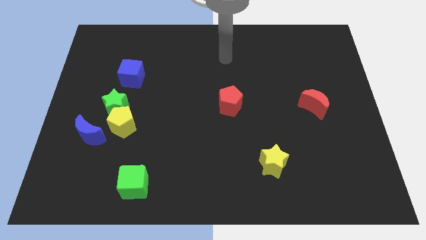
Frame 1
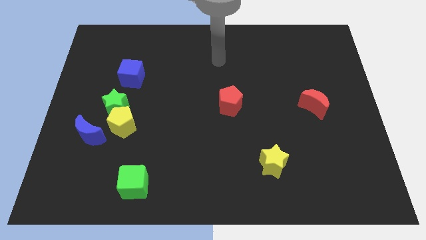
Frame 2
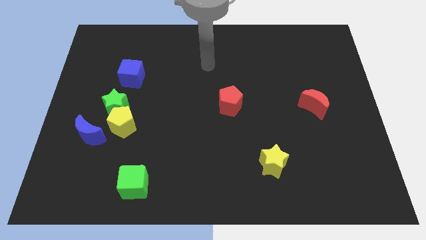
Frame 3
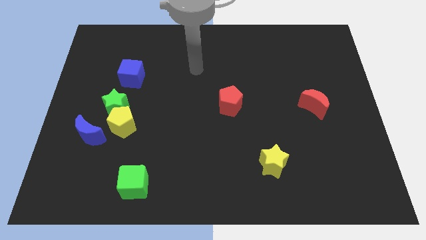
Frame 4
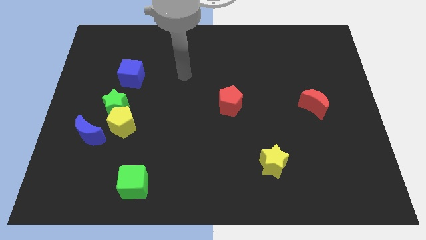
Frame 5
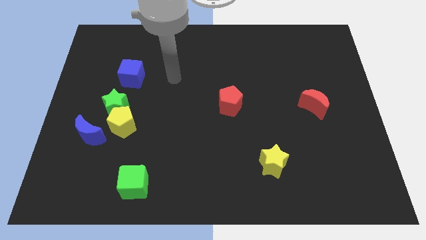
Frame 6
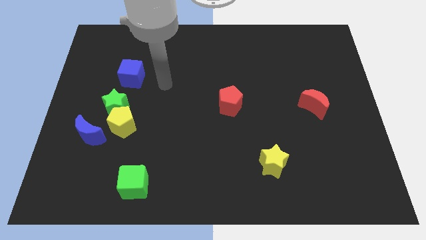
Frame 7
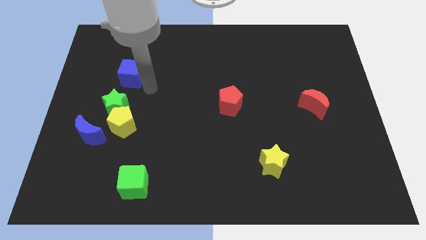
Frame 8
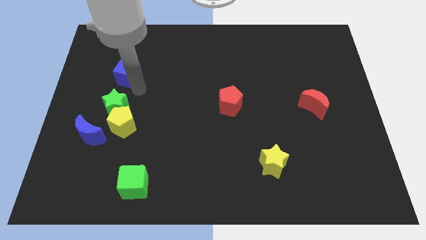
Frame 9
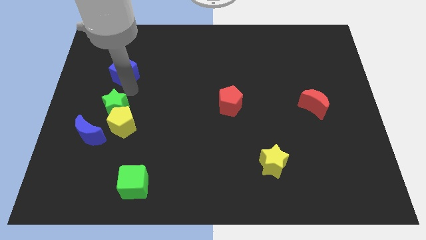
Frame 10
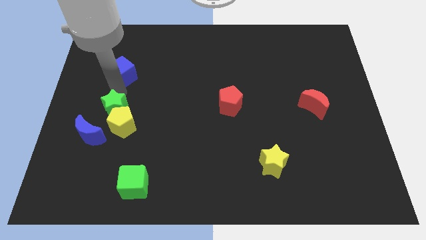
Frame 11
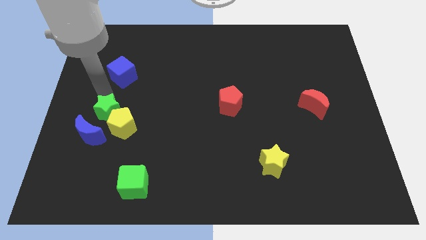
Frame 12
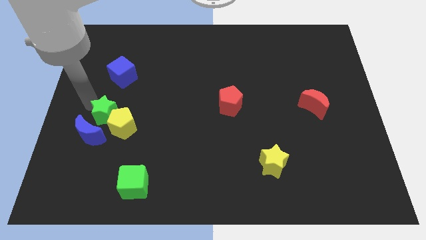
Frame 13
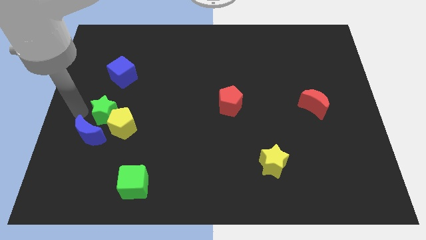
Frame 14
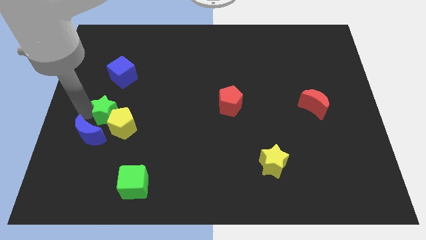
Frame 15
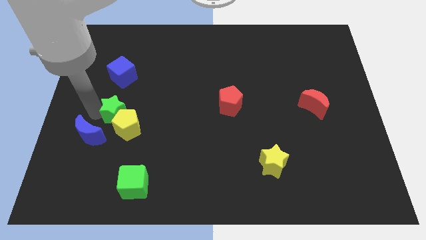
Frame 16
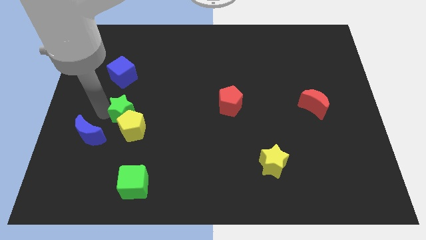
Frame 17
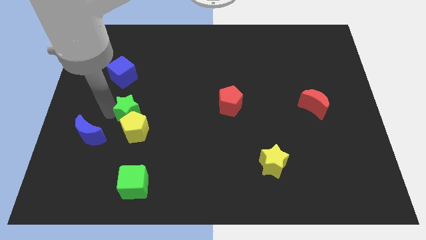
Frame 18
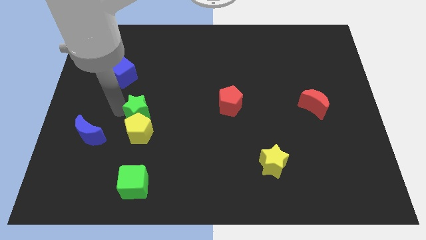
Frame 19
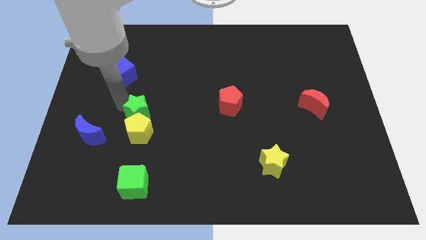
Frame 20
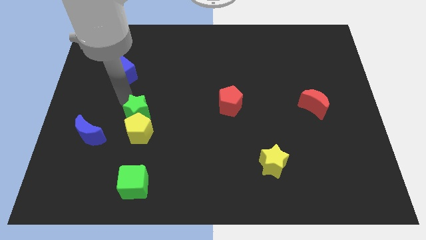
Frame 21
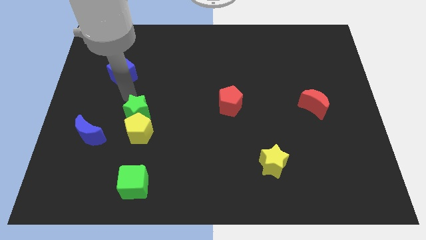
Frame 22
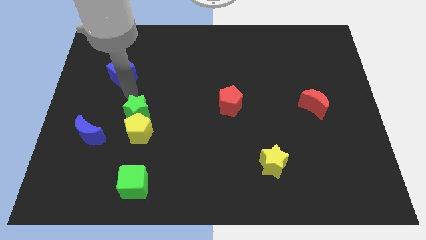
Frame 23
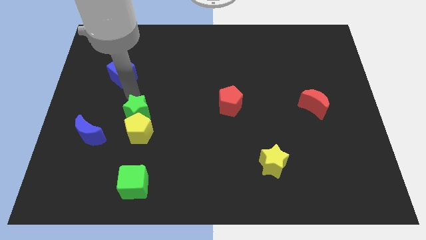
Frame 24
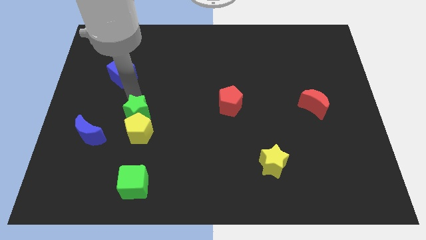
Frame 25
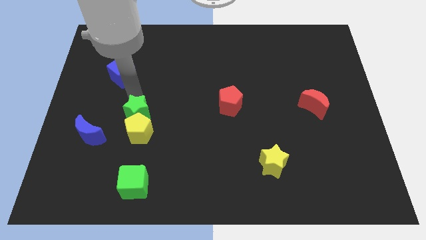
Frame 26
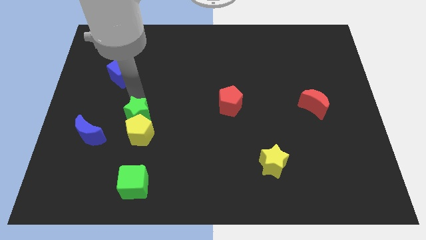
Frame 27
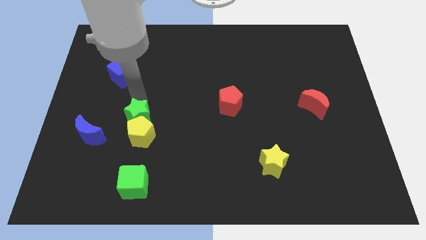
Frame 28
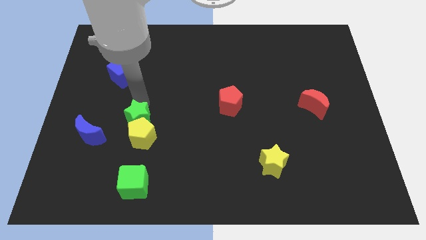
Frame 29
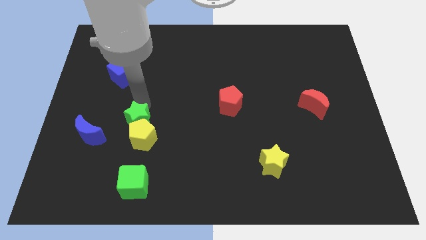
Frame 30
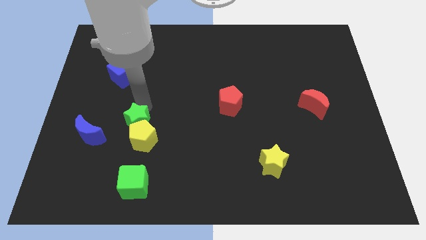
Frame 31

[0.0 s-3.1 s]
move the green star downwards and to the right a bit

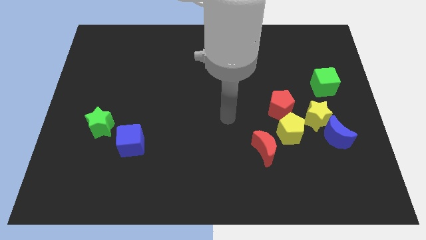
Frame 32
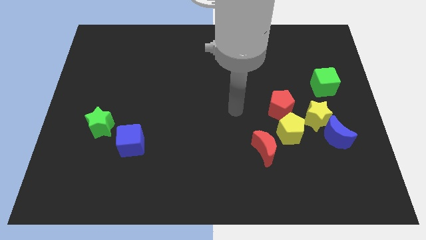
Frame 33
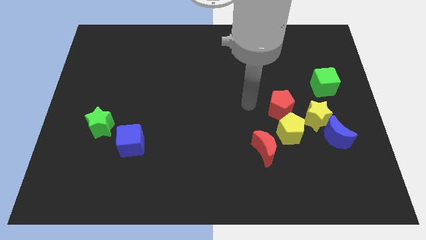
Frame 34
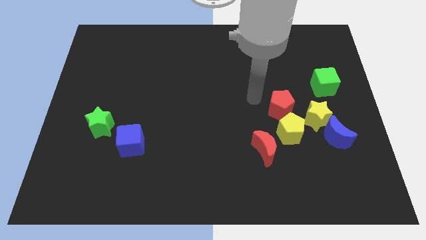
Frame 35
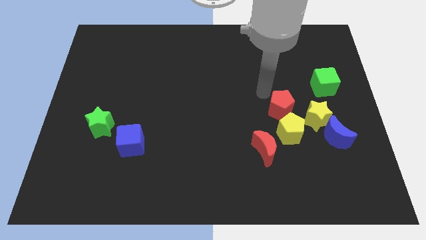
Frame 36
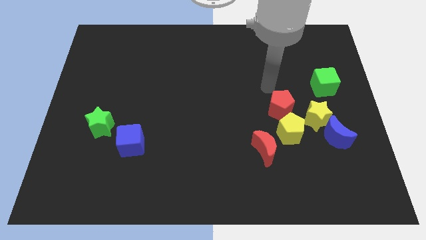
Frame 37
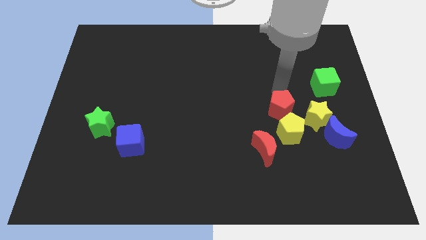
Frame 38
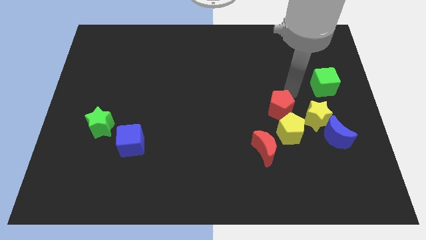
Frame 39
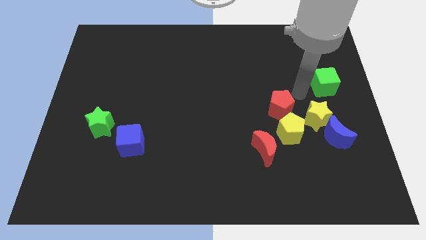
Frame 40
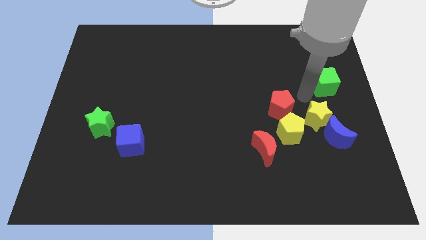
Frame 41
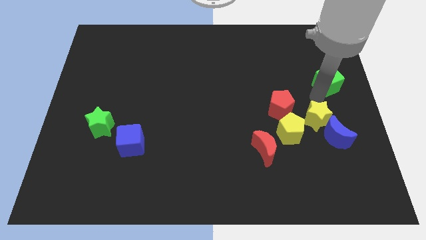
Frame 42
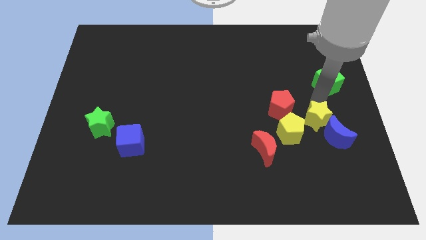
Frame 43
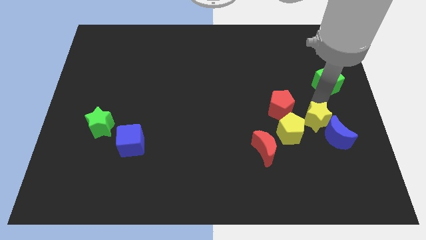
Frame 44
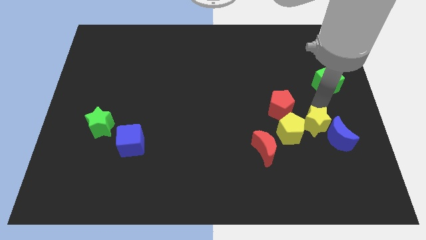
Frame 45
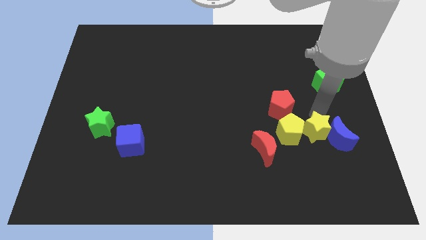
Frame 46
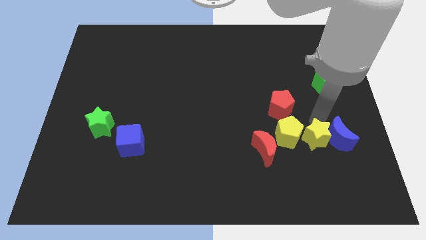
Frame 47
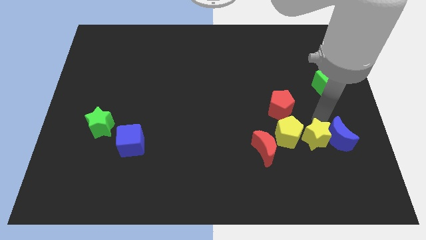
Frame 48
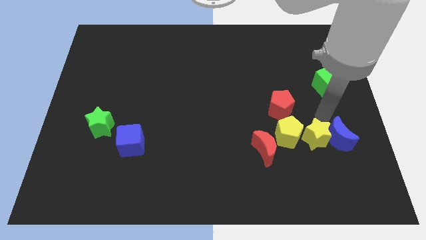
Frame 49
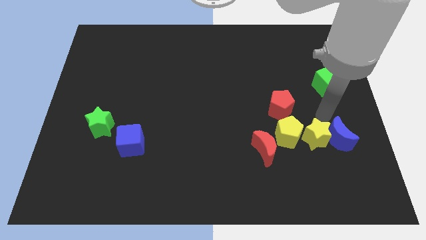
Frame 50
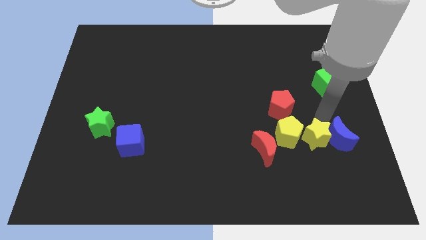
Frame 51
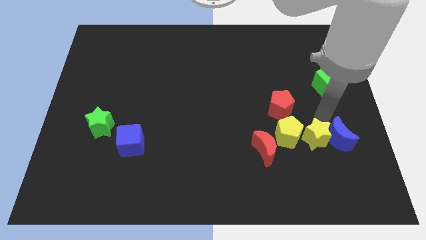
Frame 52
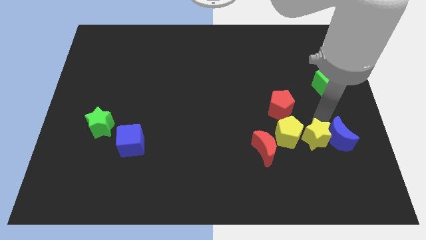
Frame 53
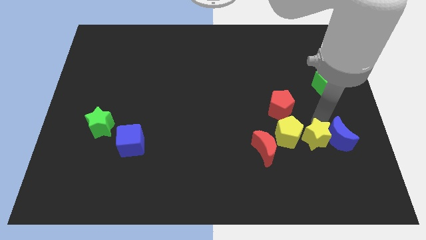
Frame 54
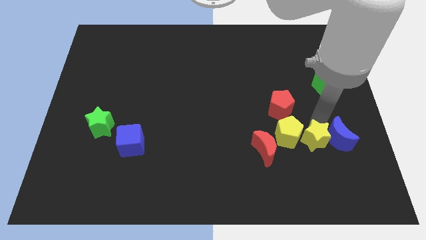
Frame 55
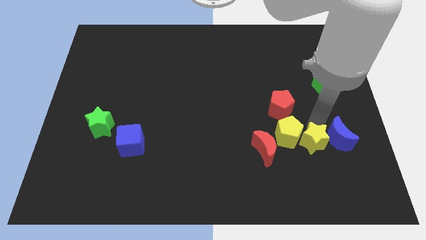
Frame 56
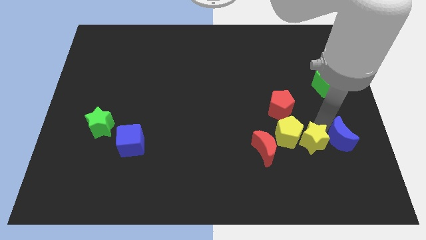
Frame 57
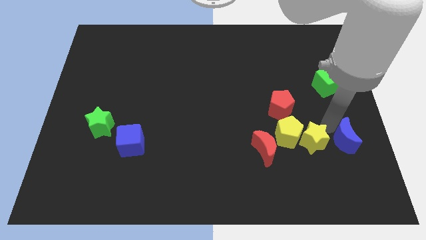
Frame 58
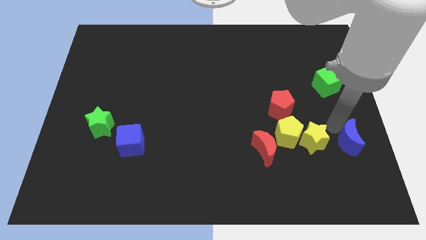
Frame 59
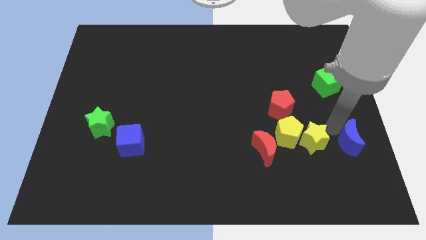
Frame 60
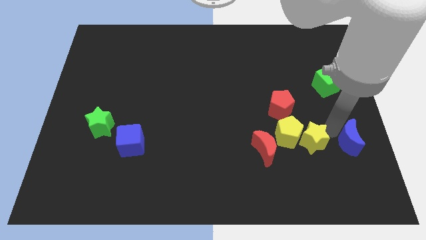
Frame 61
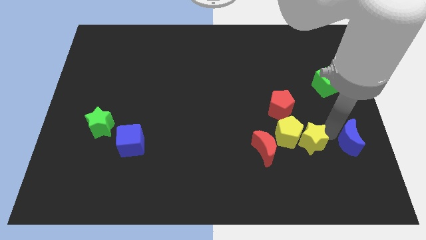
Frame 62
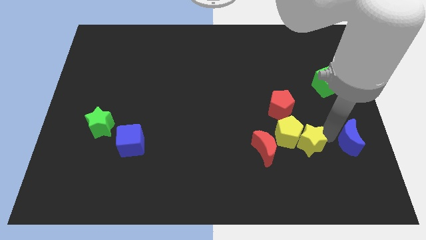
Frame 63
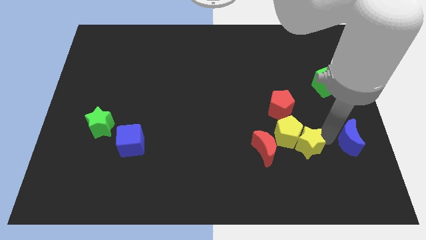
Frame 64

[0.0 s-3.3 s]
slightly move the yellow star down and left

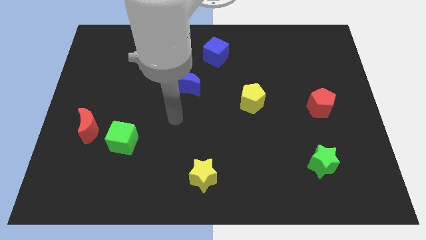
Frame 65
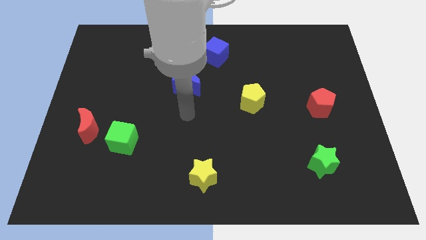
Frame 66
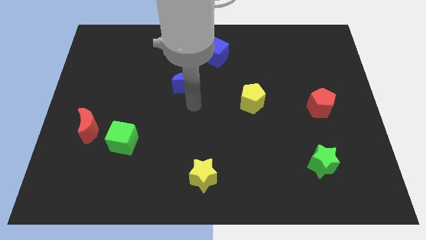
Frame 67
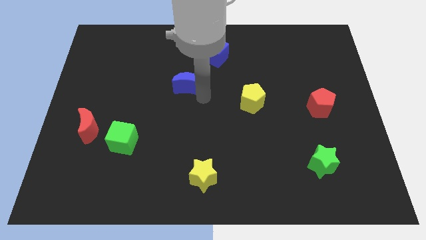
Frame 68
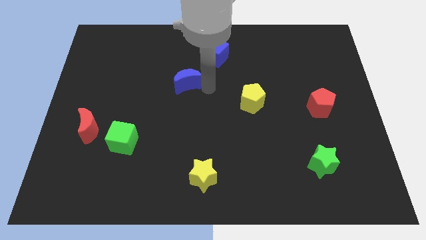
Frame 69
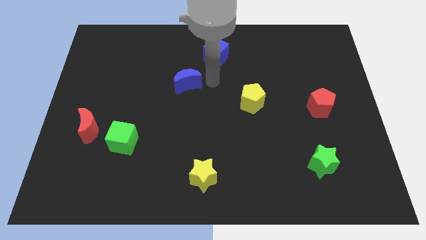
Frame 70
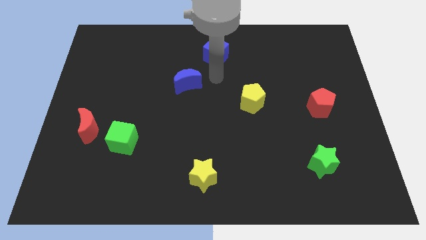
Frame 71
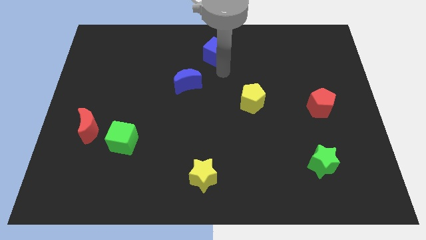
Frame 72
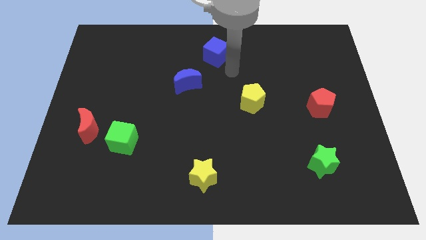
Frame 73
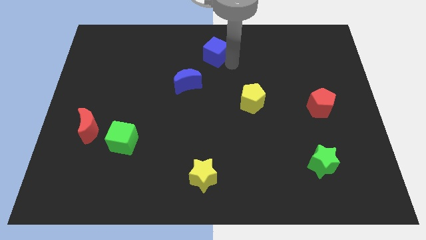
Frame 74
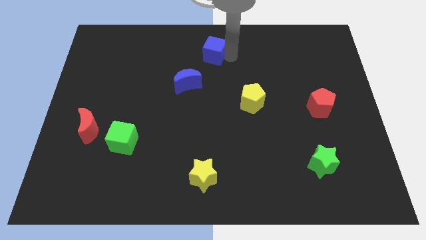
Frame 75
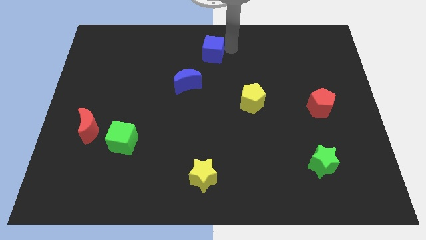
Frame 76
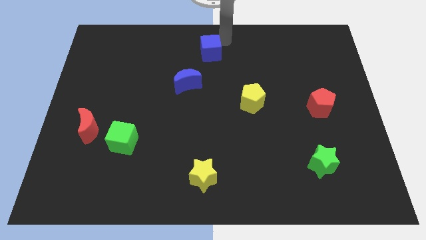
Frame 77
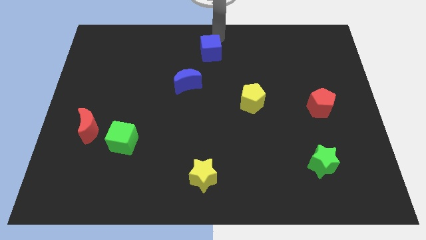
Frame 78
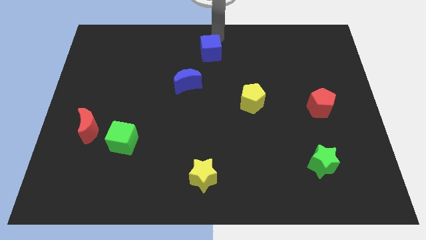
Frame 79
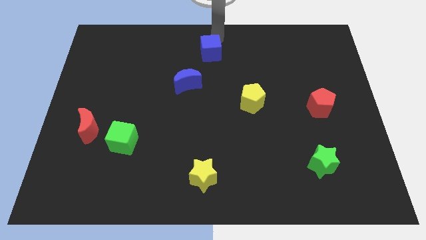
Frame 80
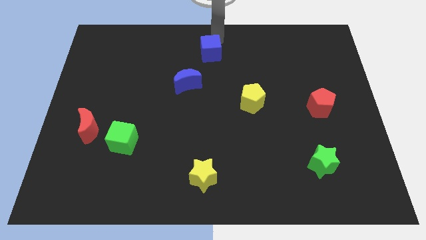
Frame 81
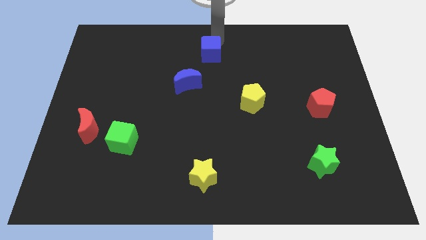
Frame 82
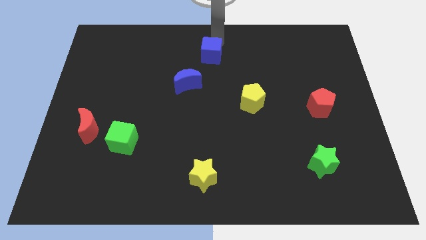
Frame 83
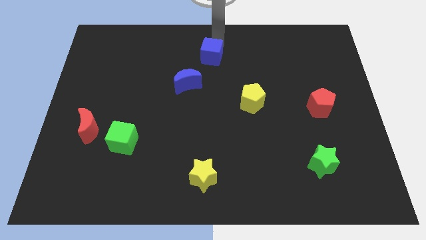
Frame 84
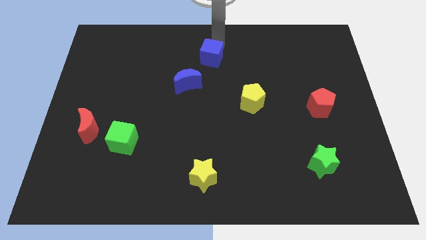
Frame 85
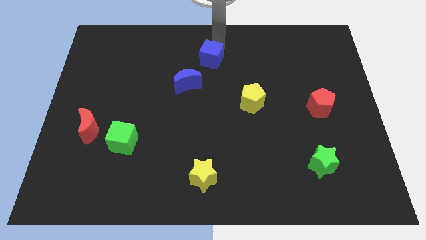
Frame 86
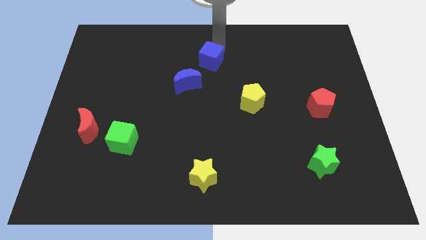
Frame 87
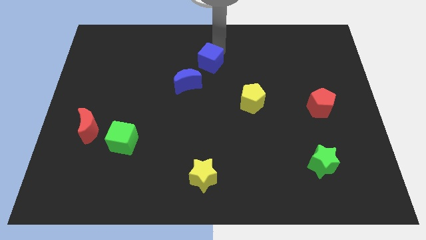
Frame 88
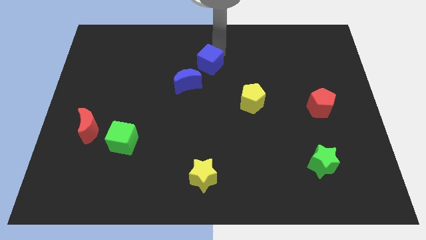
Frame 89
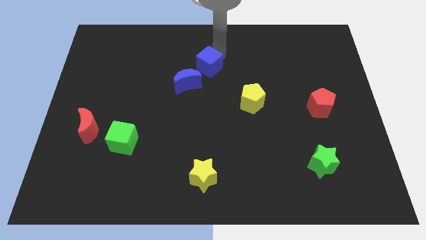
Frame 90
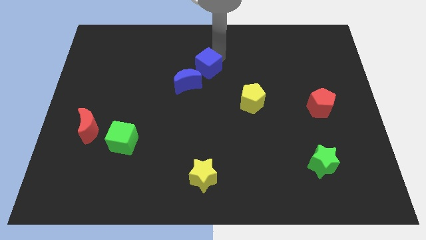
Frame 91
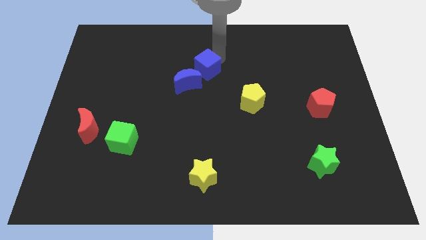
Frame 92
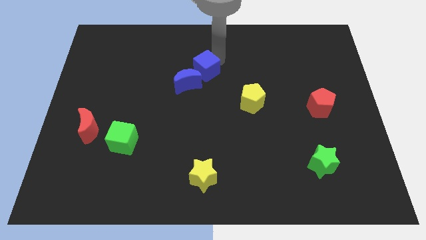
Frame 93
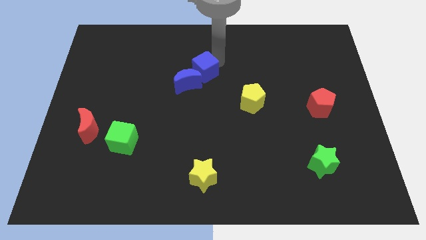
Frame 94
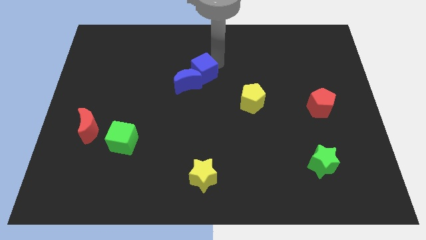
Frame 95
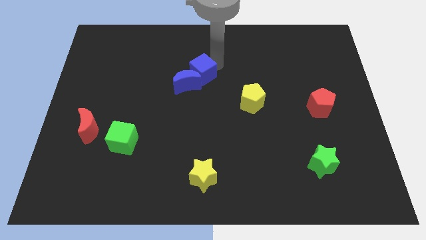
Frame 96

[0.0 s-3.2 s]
move the blue cube diagonally down and left a little bit
